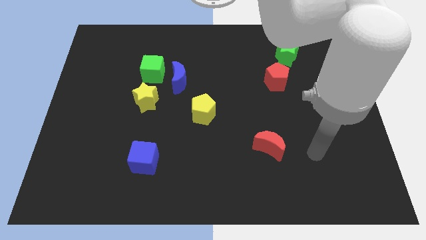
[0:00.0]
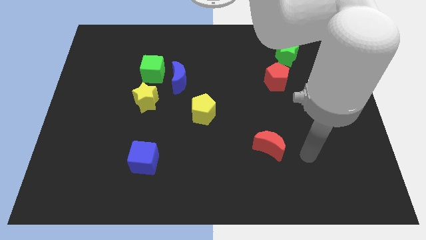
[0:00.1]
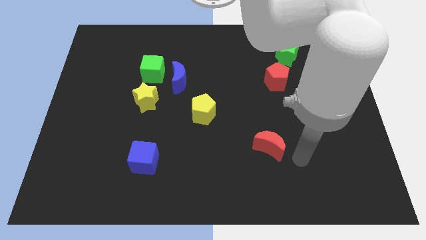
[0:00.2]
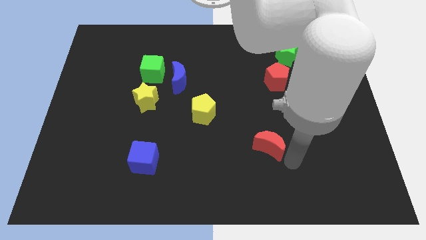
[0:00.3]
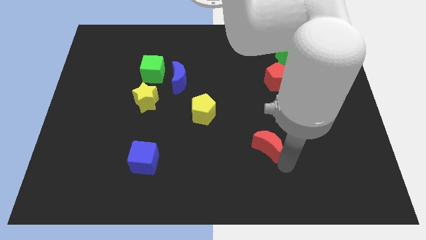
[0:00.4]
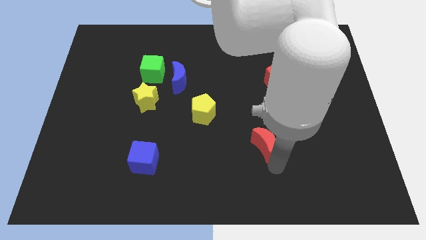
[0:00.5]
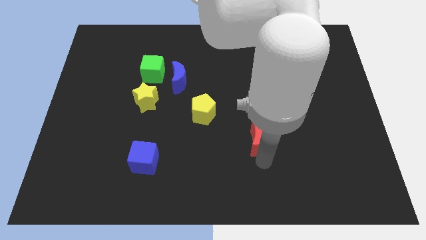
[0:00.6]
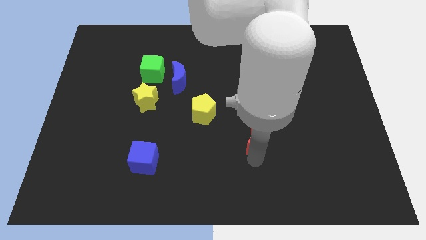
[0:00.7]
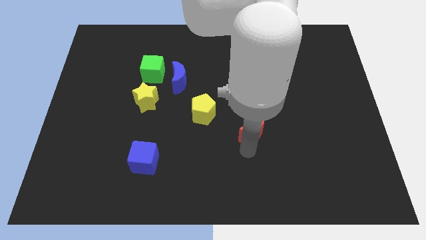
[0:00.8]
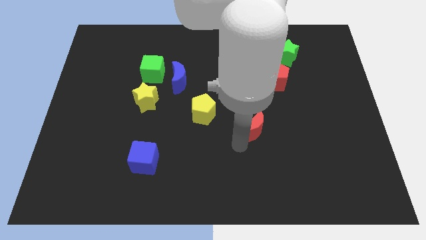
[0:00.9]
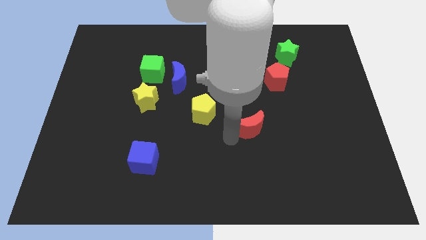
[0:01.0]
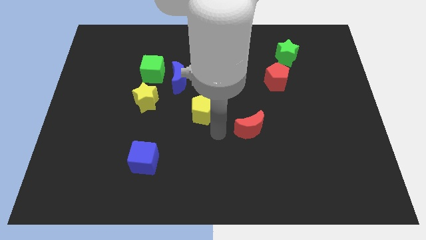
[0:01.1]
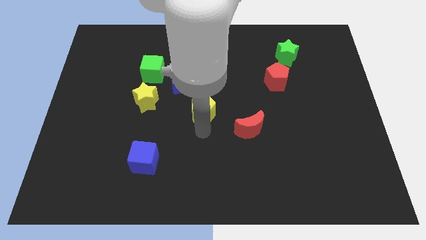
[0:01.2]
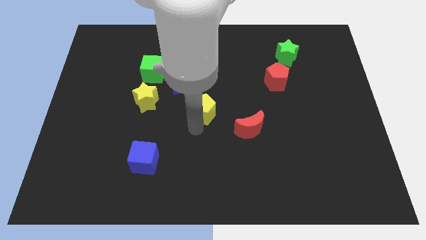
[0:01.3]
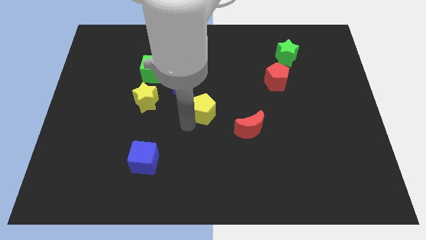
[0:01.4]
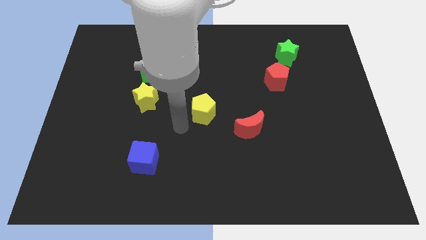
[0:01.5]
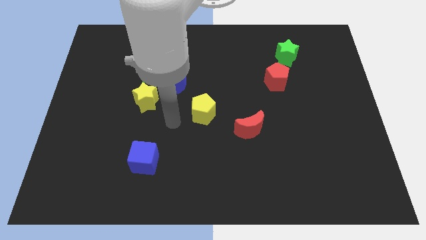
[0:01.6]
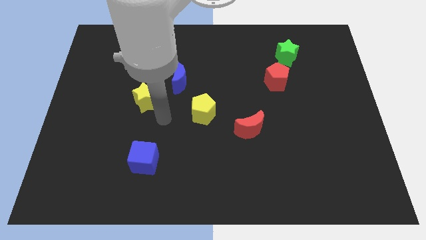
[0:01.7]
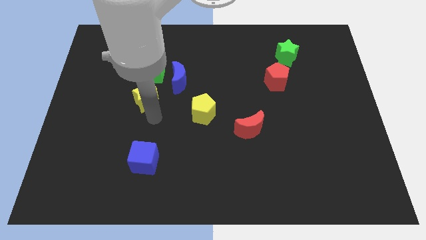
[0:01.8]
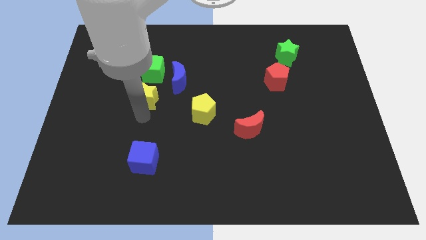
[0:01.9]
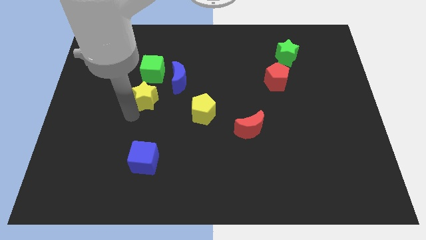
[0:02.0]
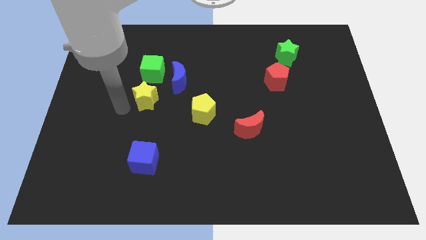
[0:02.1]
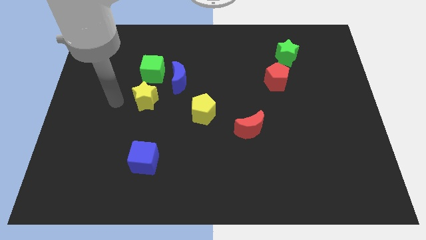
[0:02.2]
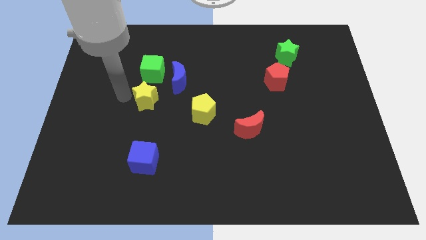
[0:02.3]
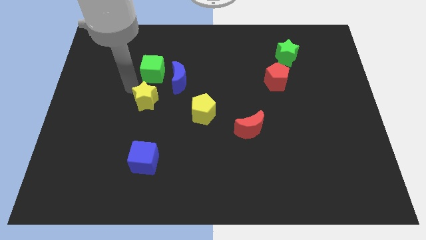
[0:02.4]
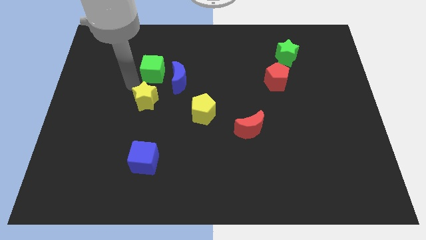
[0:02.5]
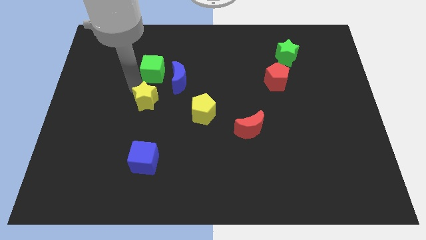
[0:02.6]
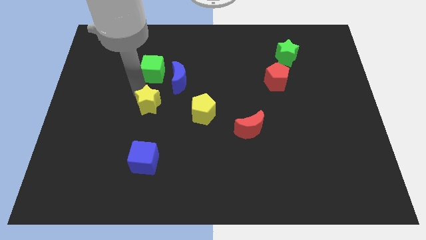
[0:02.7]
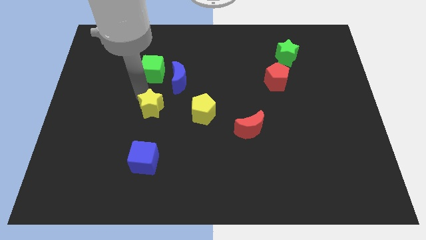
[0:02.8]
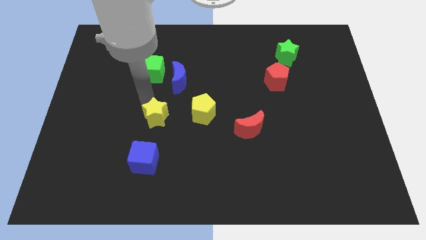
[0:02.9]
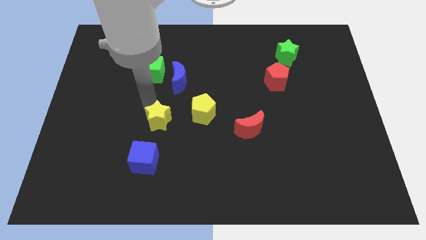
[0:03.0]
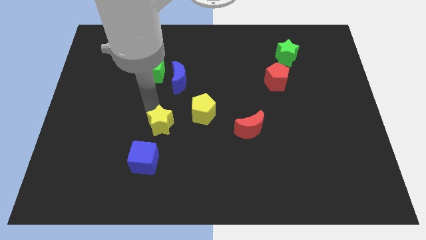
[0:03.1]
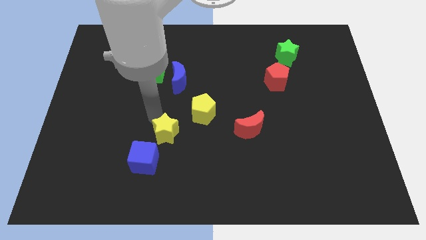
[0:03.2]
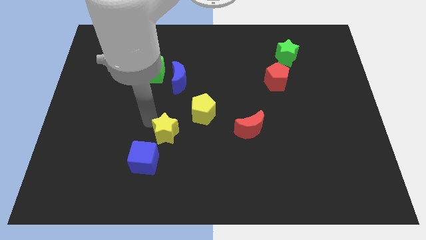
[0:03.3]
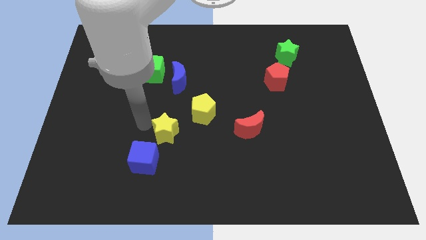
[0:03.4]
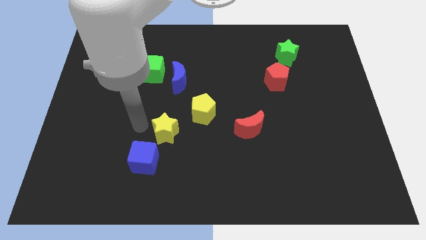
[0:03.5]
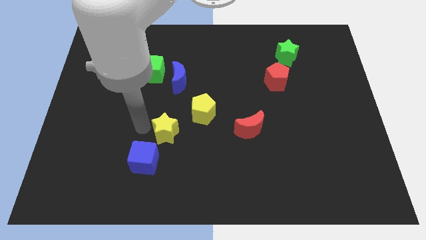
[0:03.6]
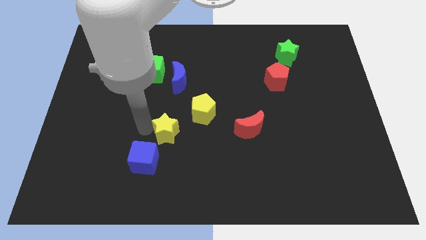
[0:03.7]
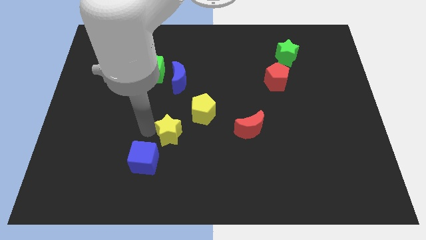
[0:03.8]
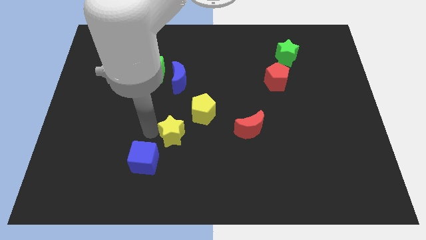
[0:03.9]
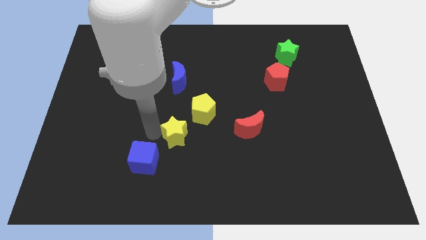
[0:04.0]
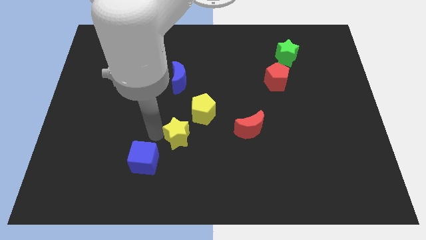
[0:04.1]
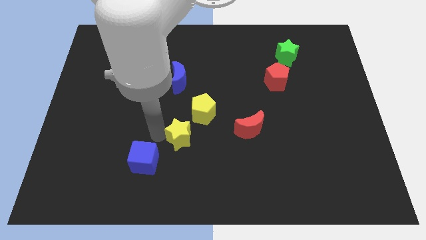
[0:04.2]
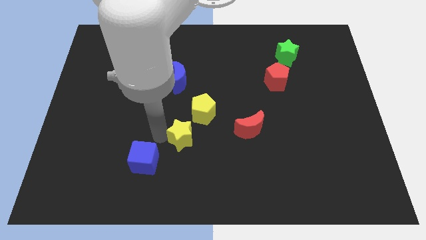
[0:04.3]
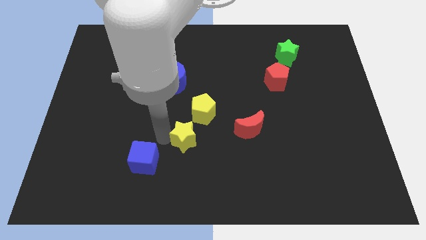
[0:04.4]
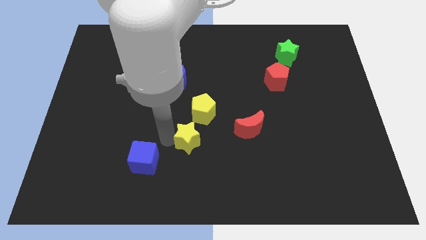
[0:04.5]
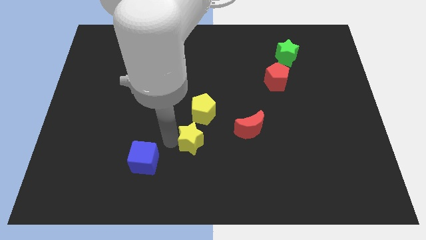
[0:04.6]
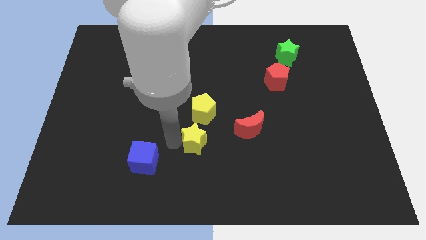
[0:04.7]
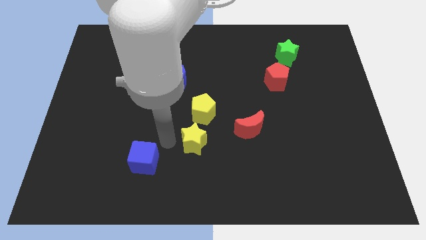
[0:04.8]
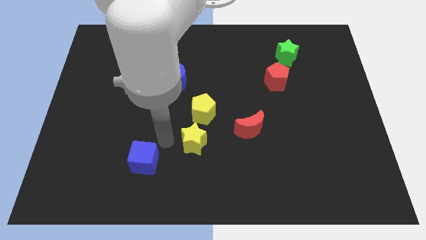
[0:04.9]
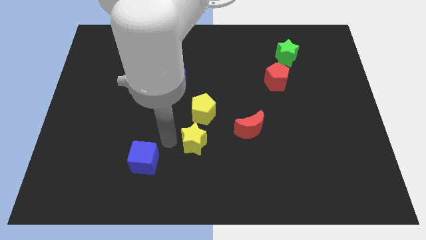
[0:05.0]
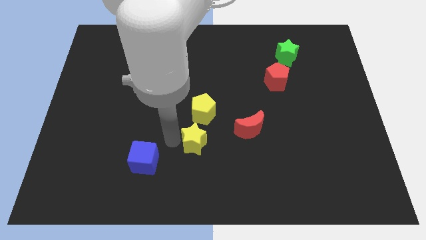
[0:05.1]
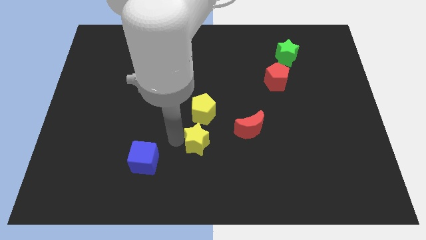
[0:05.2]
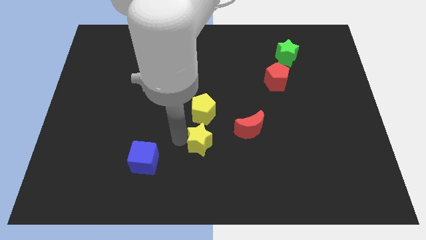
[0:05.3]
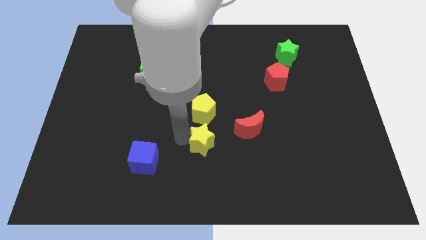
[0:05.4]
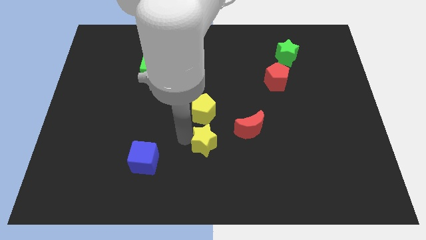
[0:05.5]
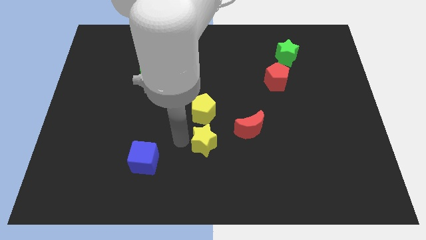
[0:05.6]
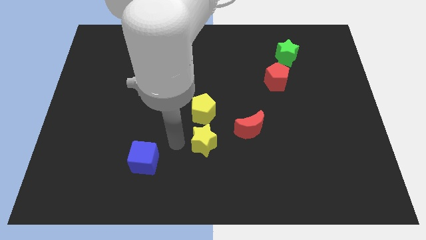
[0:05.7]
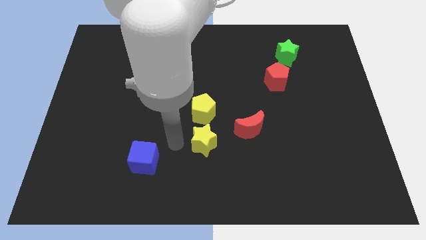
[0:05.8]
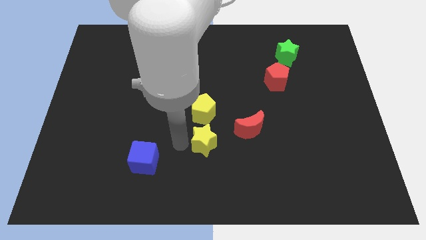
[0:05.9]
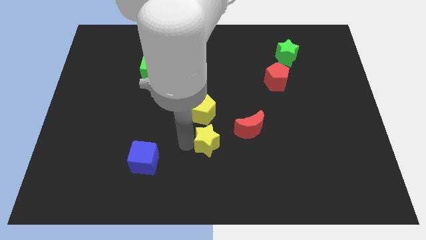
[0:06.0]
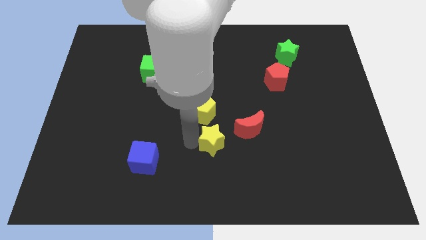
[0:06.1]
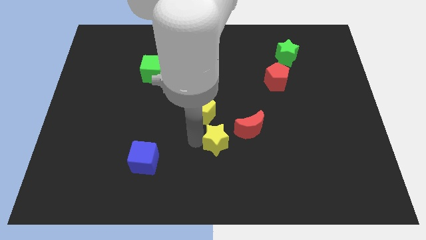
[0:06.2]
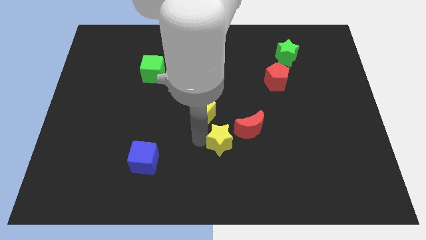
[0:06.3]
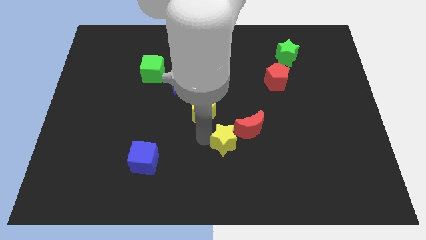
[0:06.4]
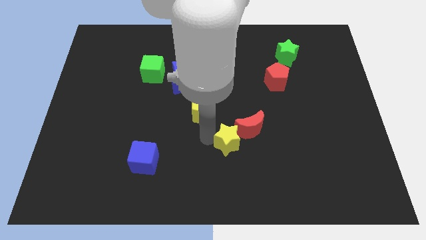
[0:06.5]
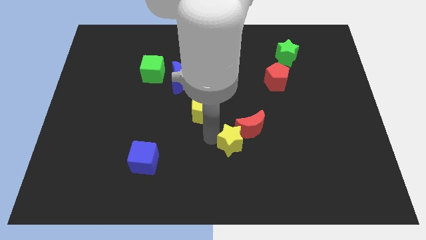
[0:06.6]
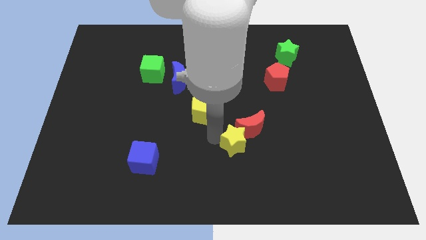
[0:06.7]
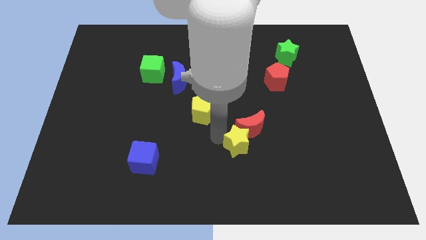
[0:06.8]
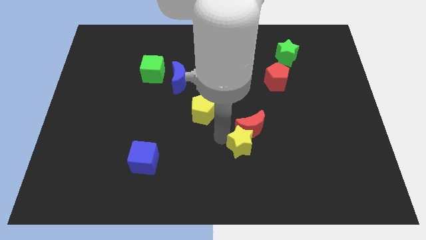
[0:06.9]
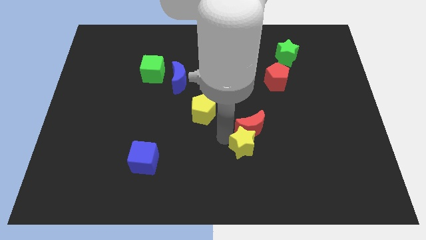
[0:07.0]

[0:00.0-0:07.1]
put the yellow star diagonally down and to the right of the red moon
